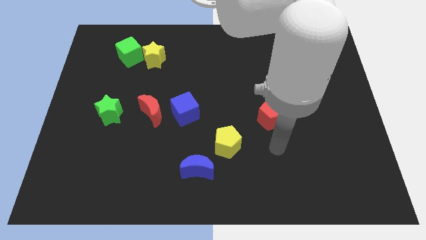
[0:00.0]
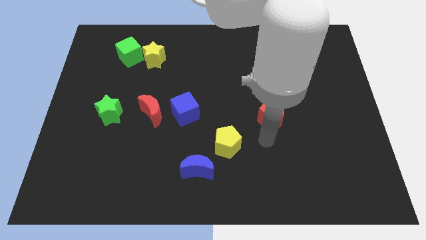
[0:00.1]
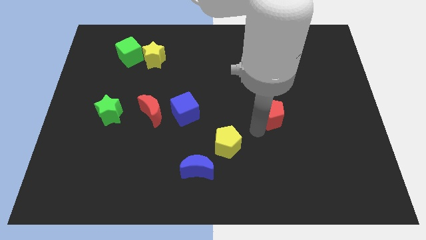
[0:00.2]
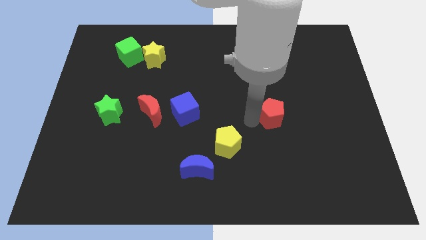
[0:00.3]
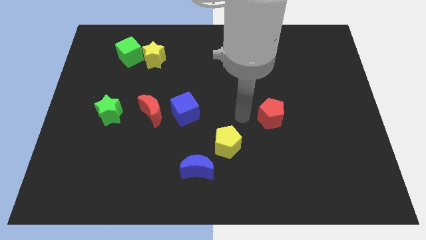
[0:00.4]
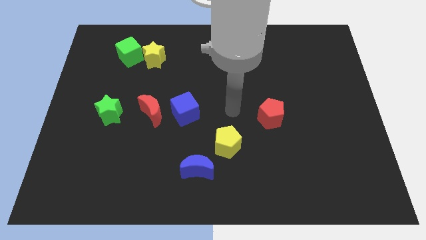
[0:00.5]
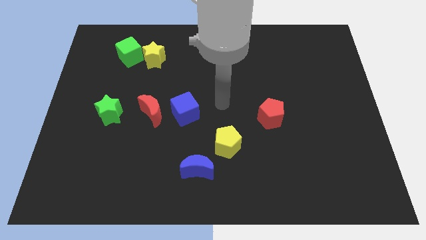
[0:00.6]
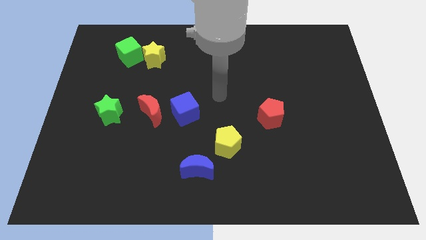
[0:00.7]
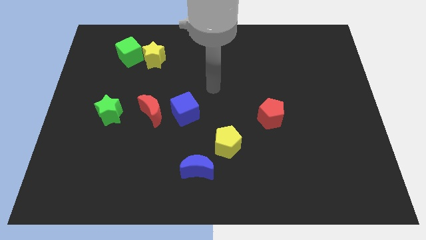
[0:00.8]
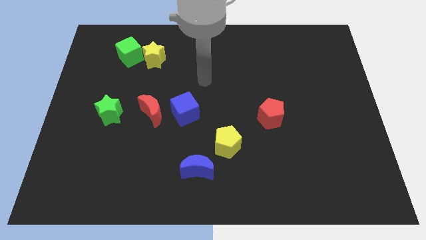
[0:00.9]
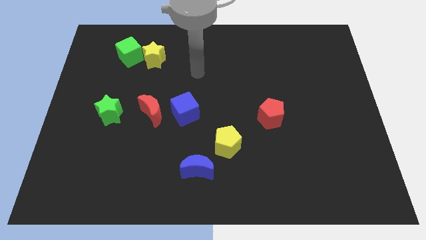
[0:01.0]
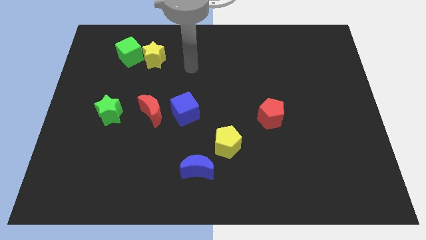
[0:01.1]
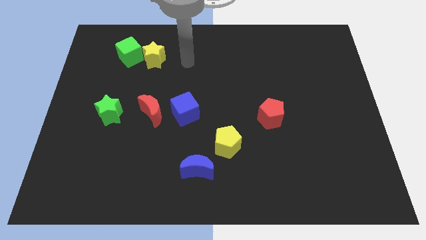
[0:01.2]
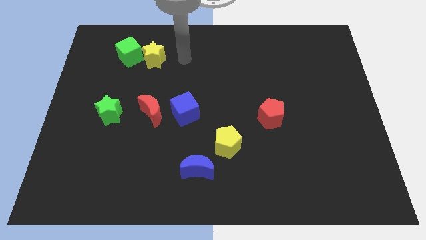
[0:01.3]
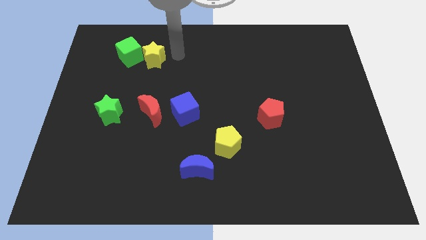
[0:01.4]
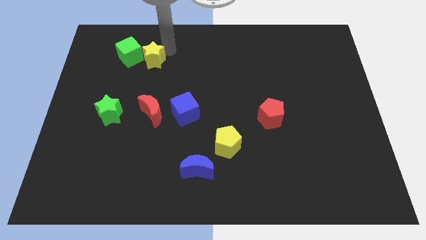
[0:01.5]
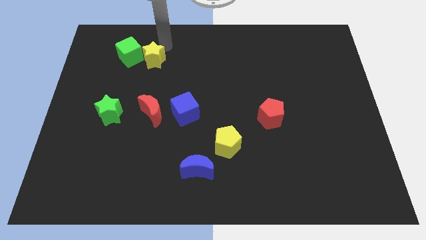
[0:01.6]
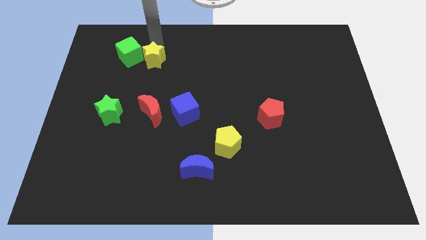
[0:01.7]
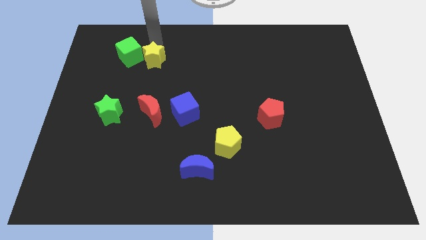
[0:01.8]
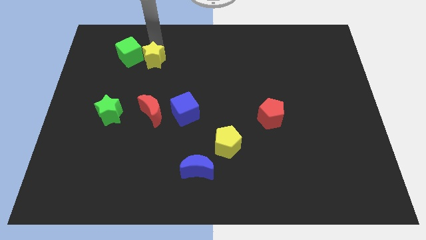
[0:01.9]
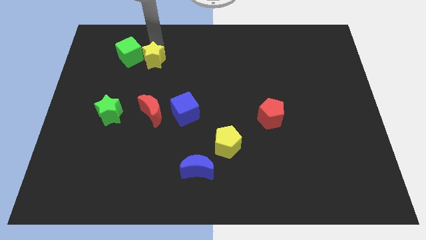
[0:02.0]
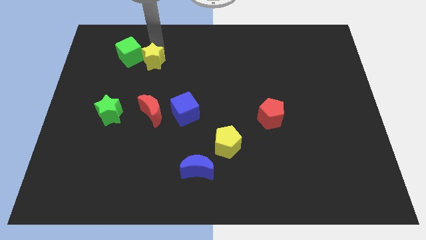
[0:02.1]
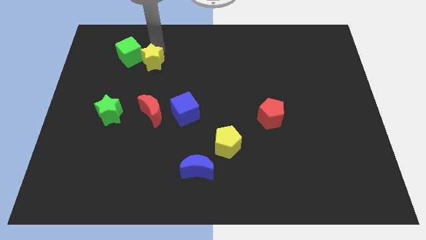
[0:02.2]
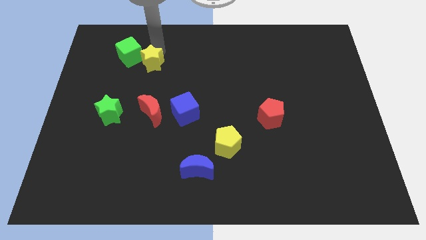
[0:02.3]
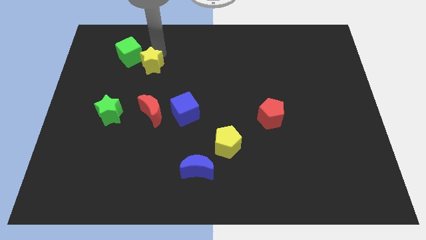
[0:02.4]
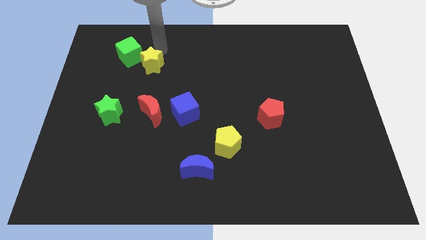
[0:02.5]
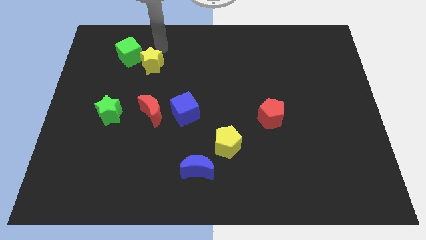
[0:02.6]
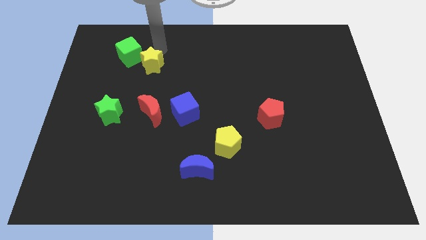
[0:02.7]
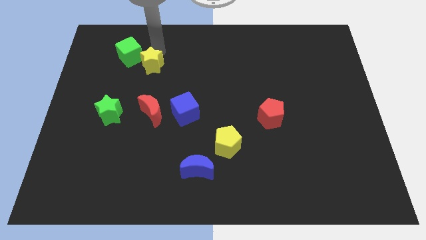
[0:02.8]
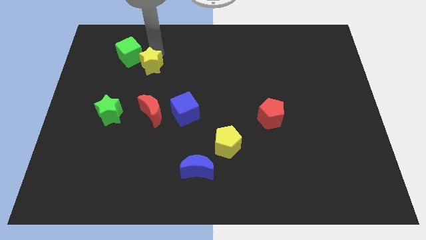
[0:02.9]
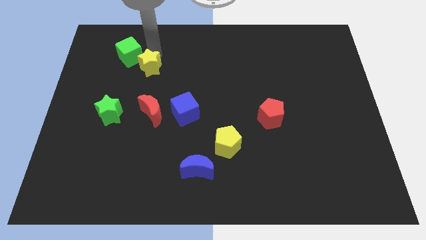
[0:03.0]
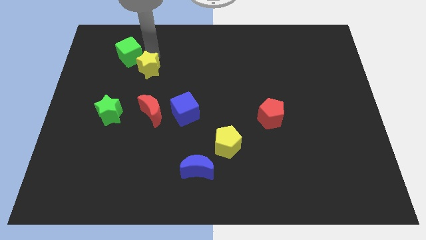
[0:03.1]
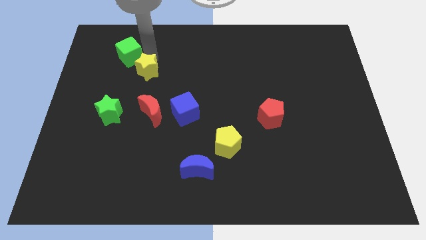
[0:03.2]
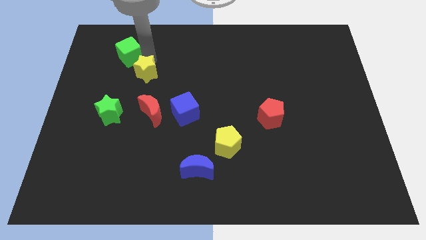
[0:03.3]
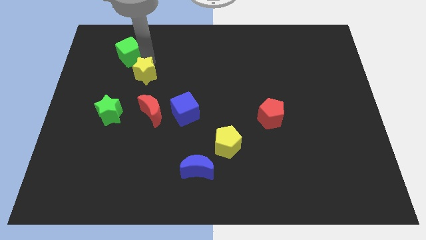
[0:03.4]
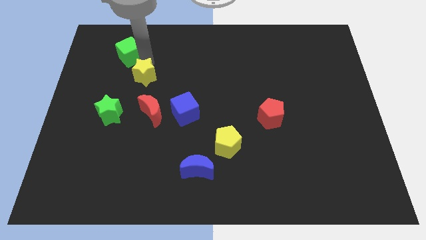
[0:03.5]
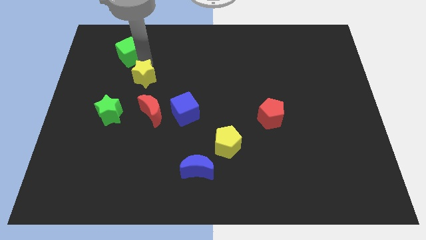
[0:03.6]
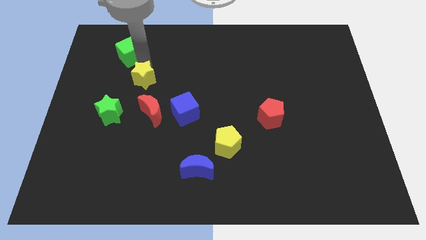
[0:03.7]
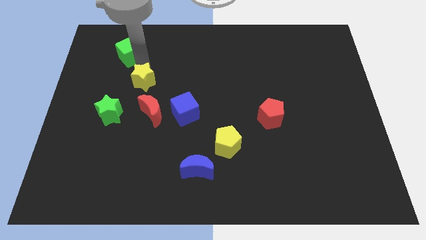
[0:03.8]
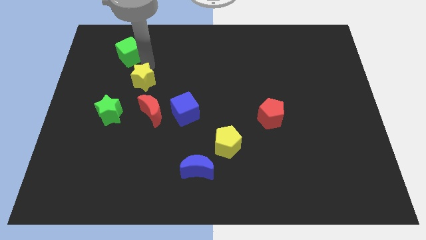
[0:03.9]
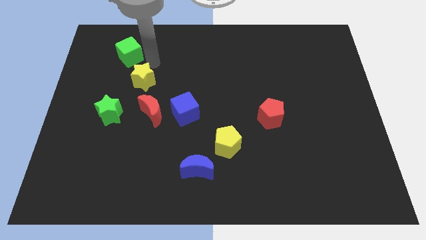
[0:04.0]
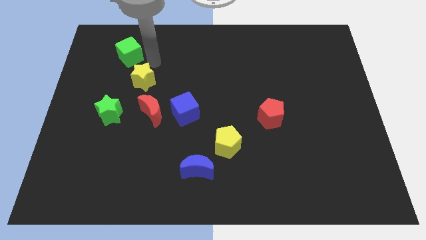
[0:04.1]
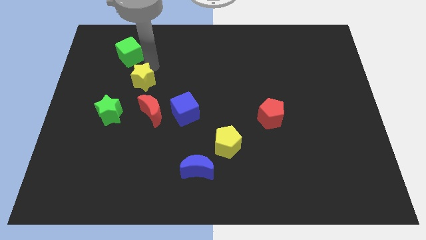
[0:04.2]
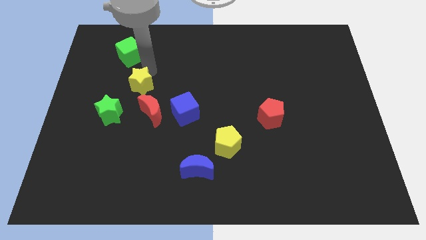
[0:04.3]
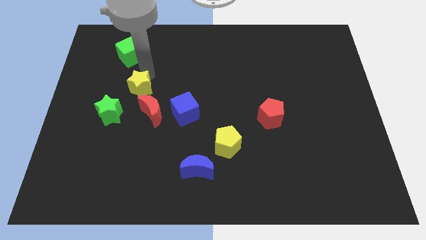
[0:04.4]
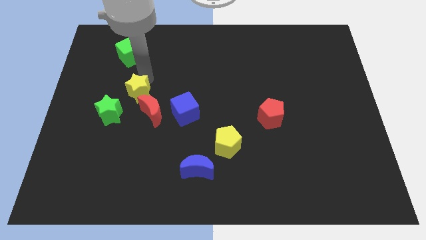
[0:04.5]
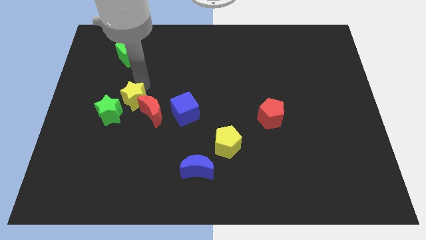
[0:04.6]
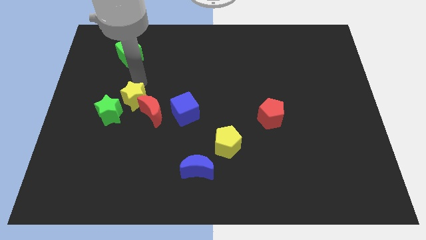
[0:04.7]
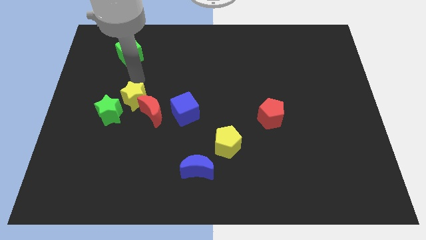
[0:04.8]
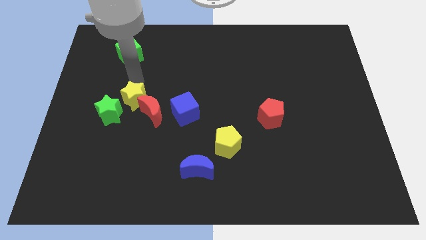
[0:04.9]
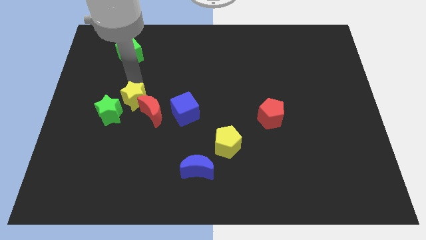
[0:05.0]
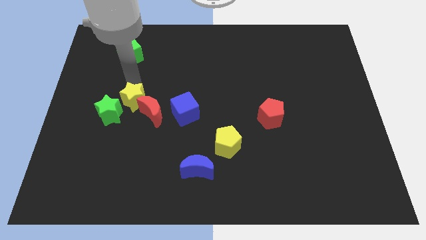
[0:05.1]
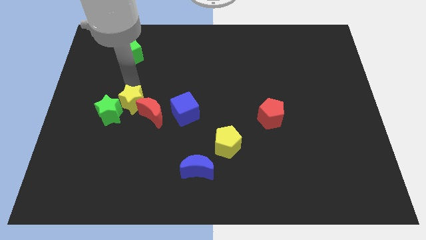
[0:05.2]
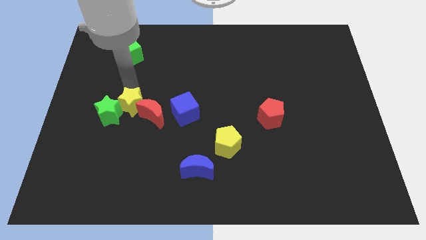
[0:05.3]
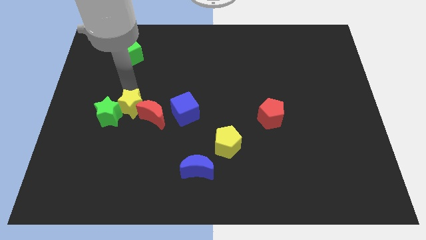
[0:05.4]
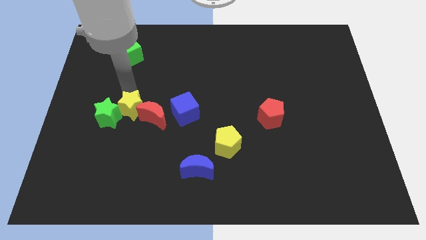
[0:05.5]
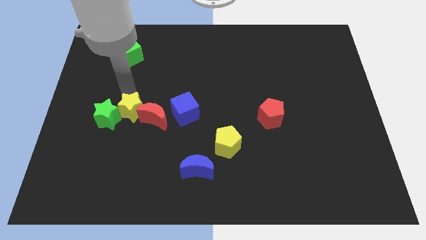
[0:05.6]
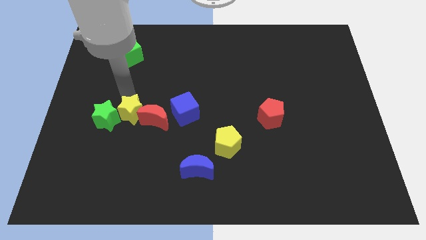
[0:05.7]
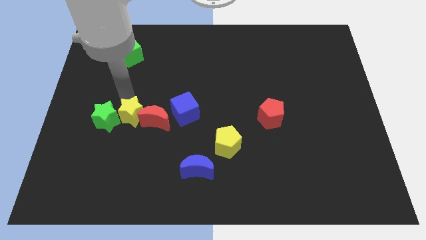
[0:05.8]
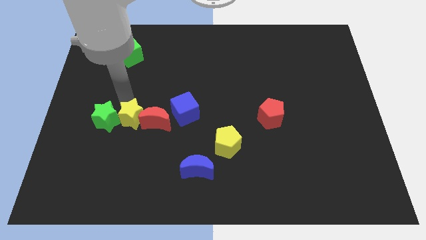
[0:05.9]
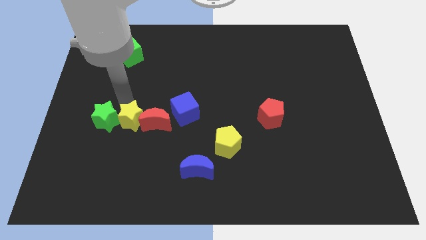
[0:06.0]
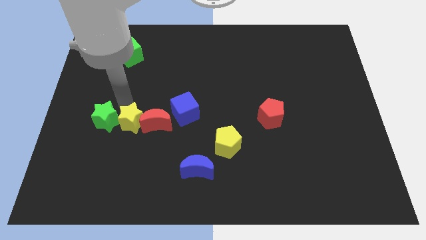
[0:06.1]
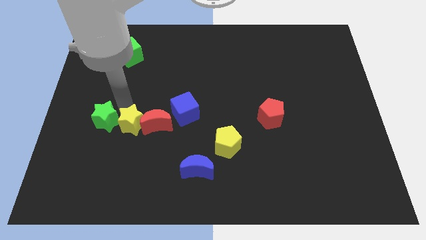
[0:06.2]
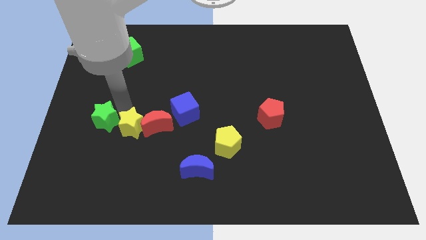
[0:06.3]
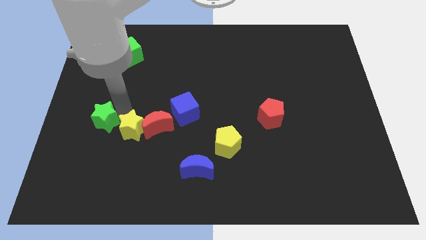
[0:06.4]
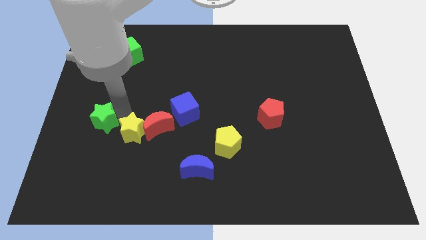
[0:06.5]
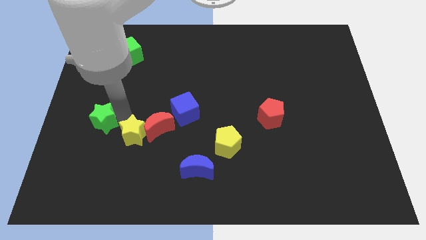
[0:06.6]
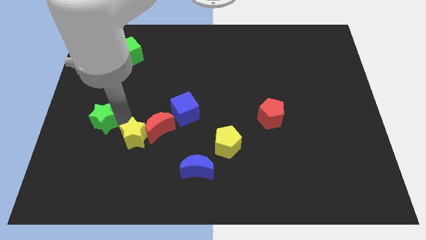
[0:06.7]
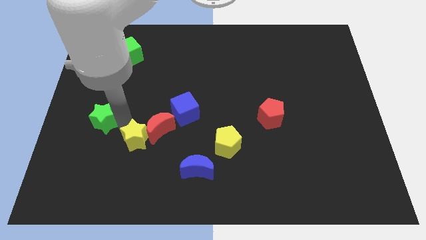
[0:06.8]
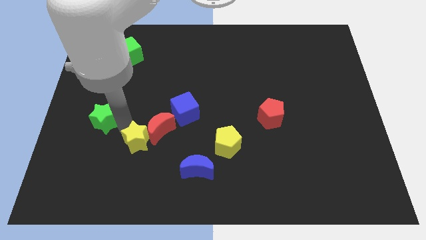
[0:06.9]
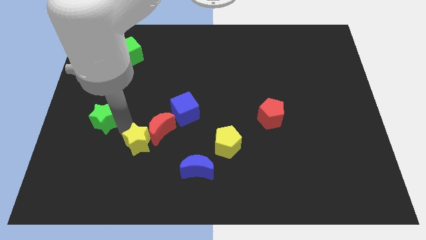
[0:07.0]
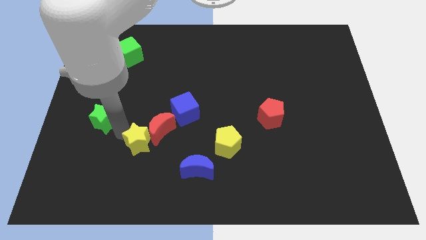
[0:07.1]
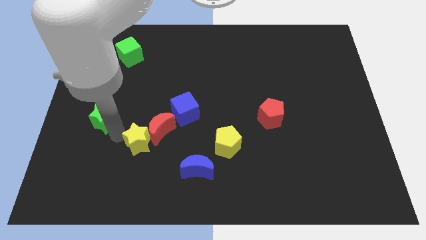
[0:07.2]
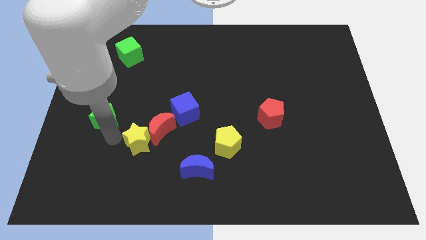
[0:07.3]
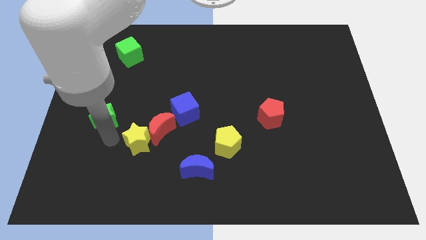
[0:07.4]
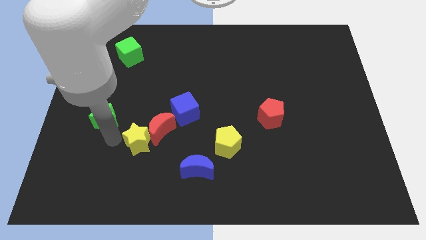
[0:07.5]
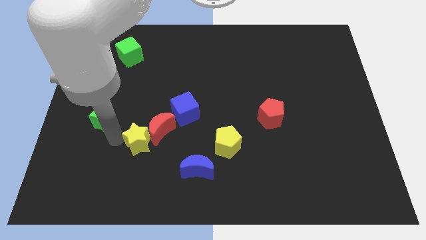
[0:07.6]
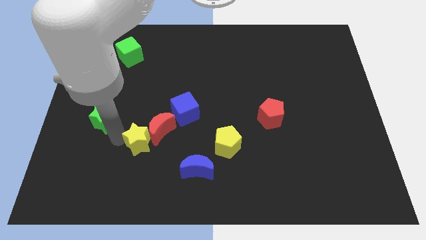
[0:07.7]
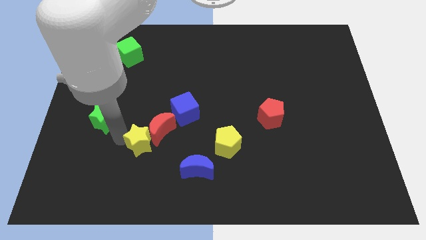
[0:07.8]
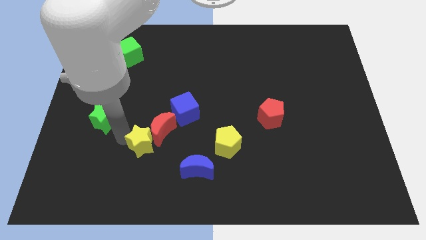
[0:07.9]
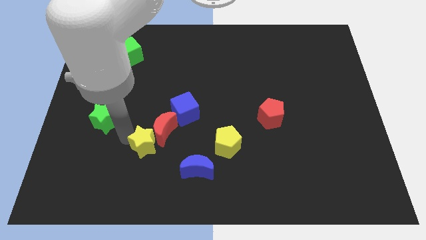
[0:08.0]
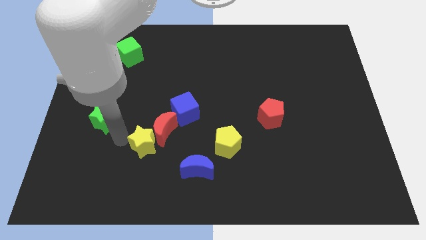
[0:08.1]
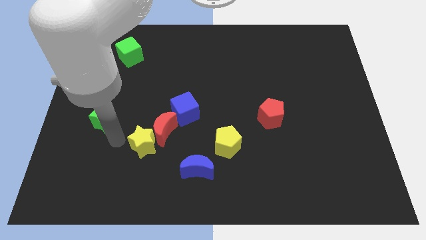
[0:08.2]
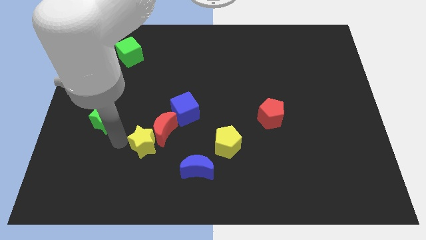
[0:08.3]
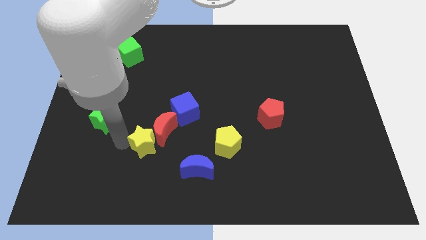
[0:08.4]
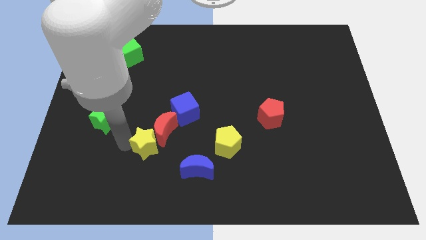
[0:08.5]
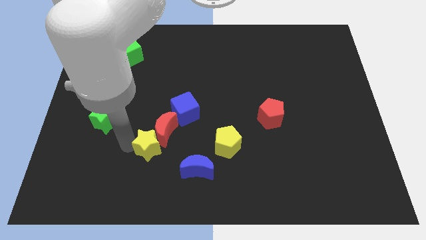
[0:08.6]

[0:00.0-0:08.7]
slide the yellow star diagonally up and to the left of the blue moon
